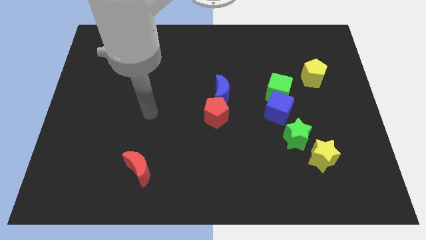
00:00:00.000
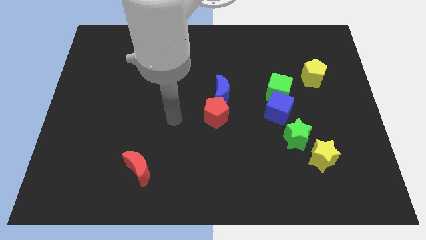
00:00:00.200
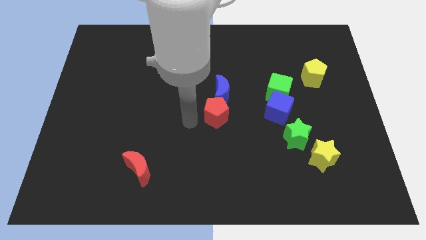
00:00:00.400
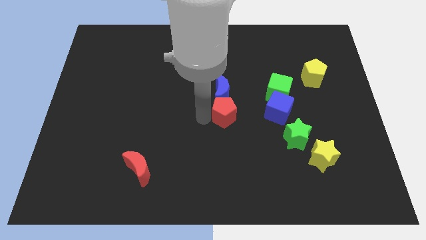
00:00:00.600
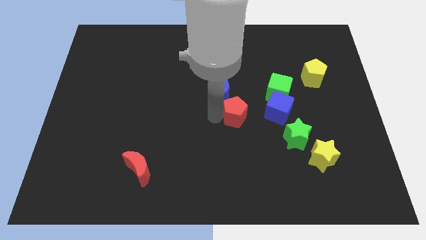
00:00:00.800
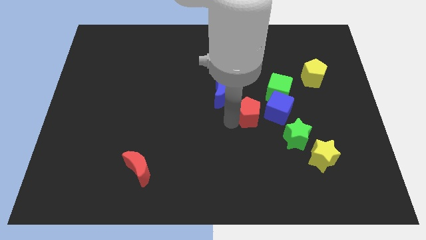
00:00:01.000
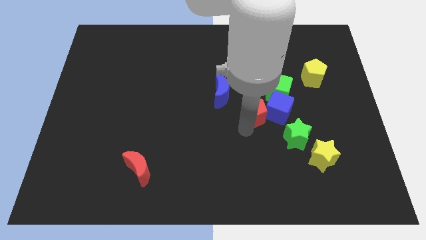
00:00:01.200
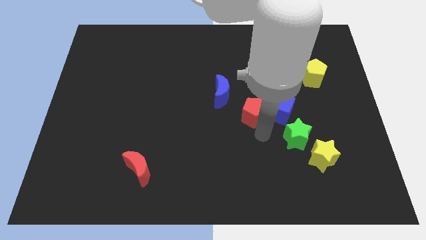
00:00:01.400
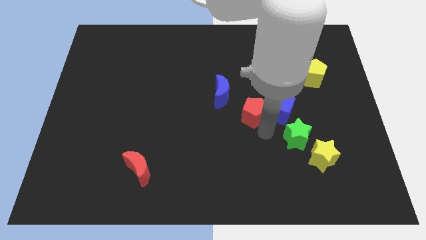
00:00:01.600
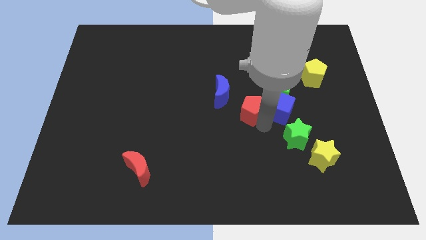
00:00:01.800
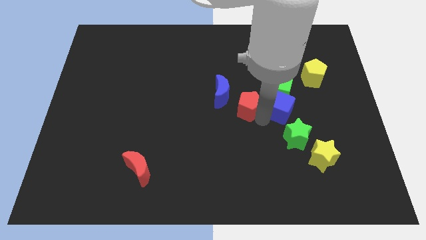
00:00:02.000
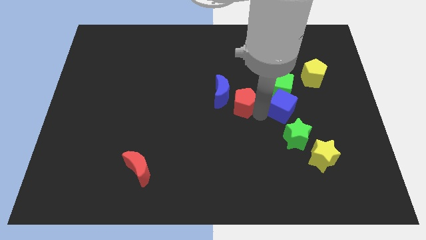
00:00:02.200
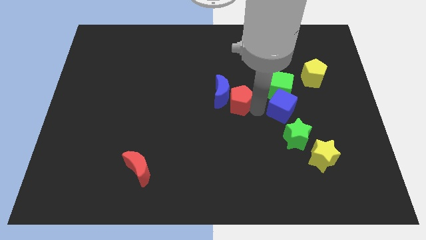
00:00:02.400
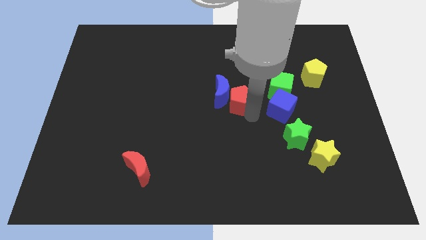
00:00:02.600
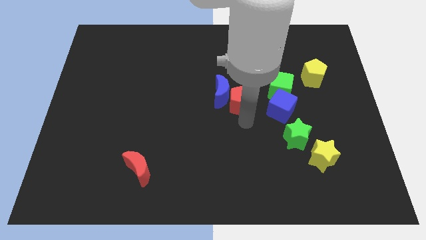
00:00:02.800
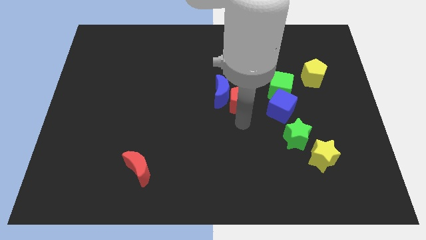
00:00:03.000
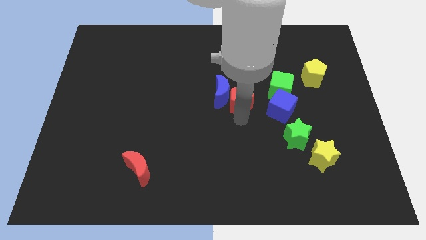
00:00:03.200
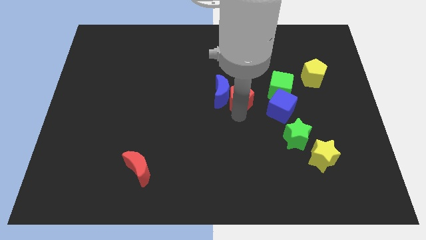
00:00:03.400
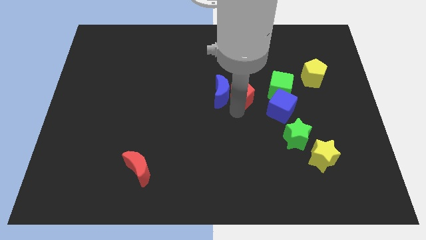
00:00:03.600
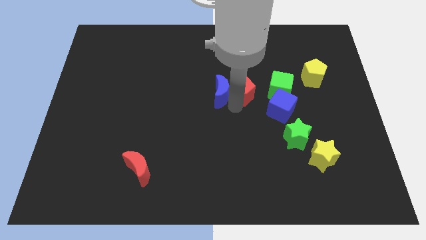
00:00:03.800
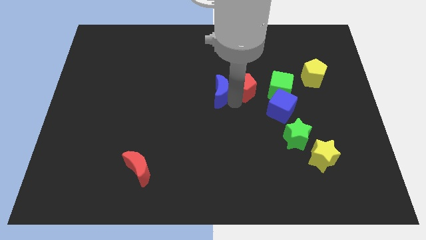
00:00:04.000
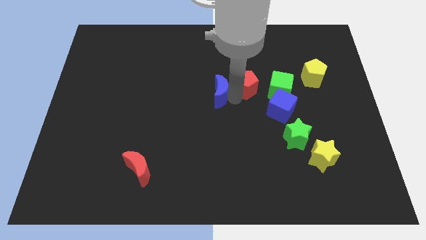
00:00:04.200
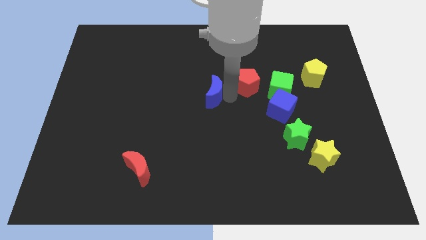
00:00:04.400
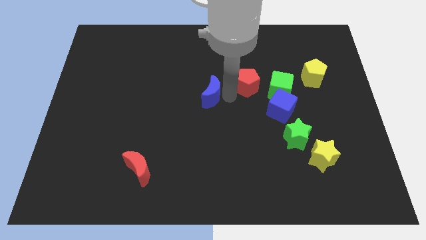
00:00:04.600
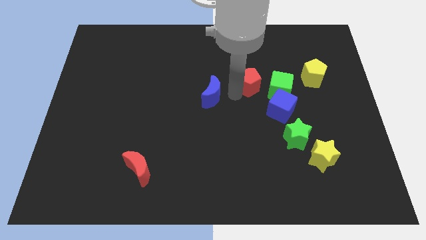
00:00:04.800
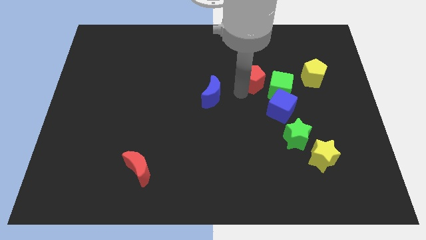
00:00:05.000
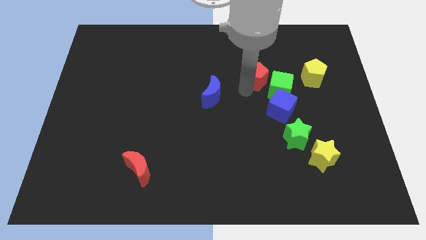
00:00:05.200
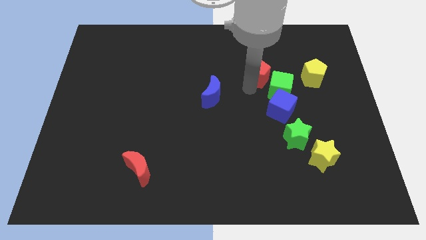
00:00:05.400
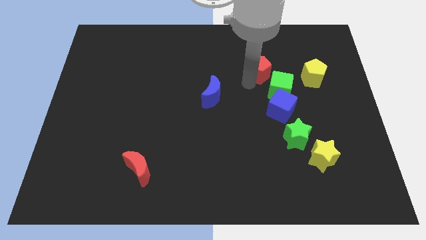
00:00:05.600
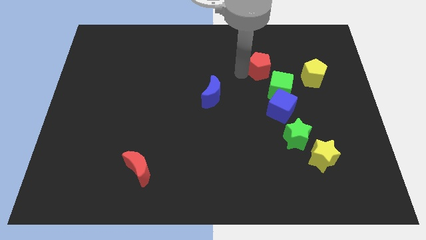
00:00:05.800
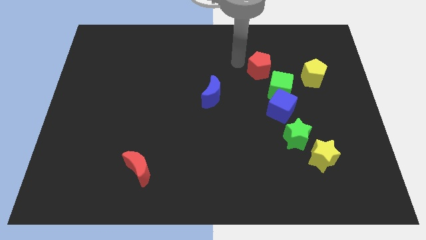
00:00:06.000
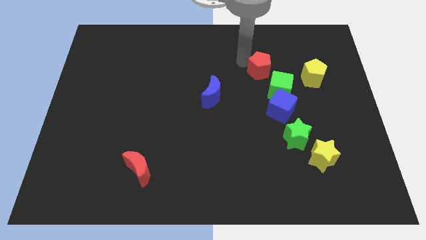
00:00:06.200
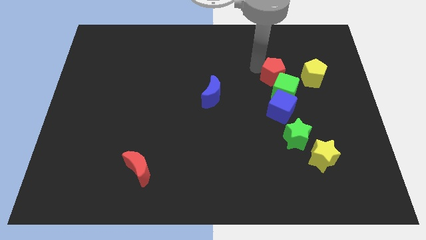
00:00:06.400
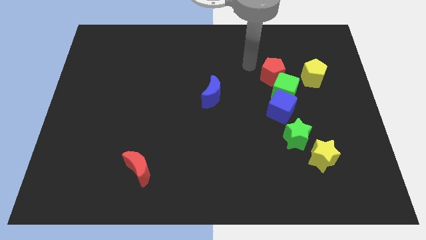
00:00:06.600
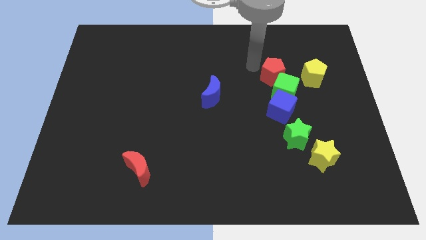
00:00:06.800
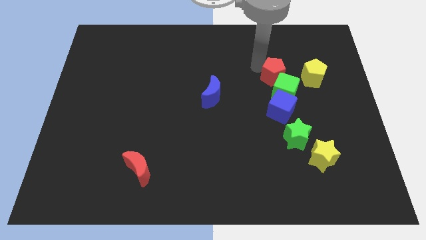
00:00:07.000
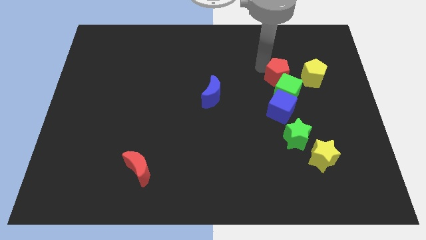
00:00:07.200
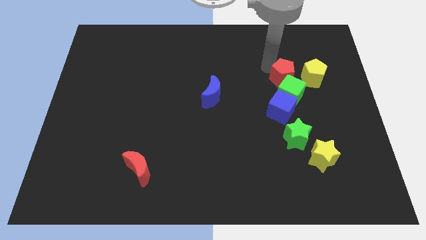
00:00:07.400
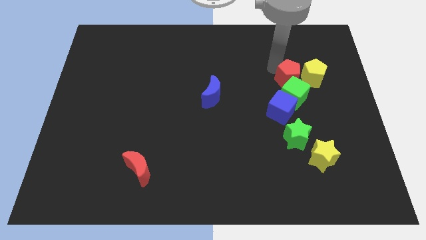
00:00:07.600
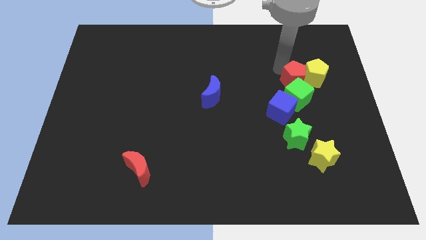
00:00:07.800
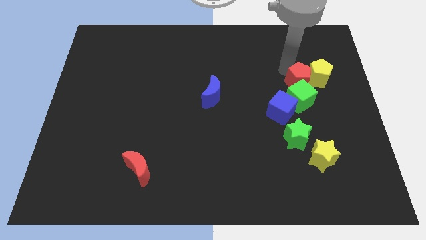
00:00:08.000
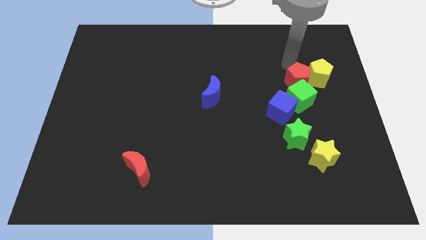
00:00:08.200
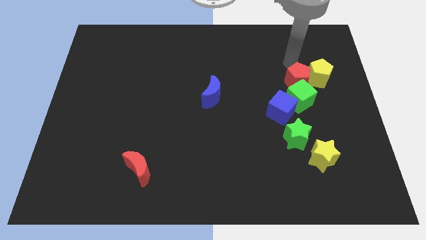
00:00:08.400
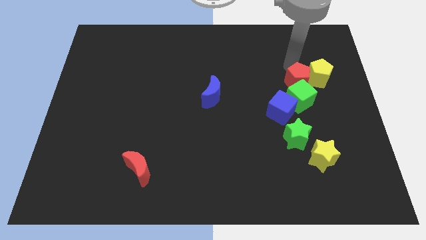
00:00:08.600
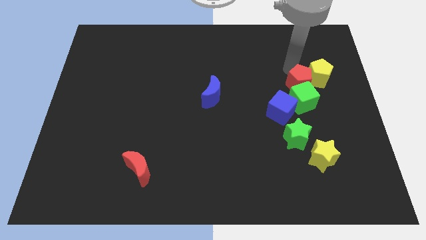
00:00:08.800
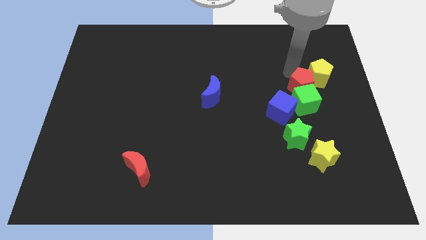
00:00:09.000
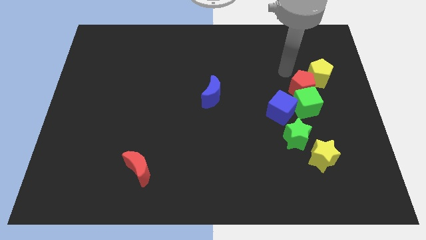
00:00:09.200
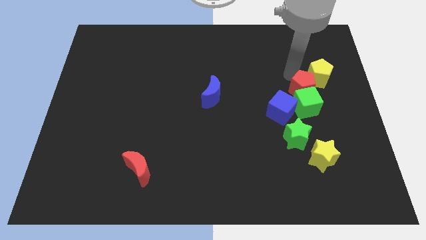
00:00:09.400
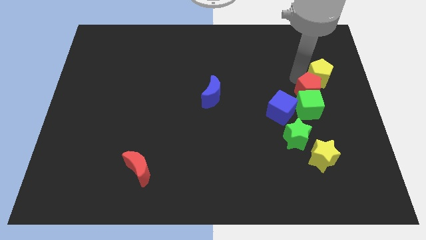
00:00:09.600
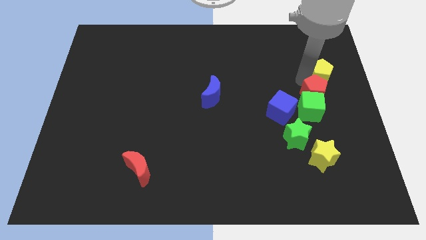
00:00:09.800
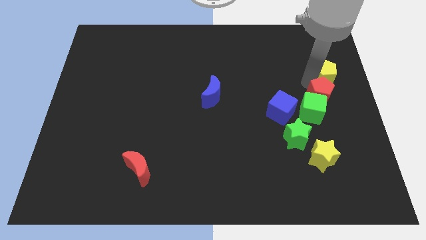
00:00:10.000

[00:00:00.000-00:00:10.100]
move the red pentagon to the right side of the blue cube

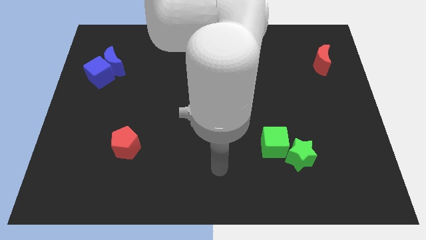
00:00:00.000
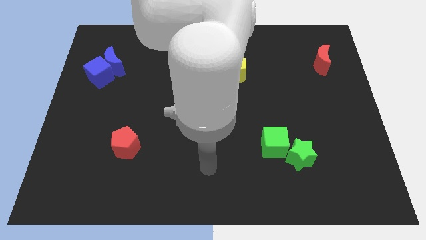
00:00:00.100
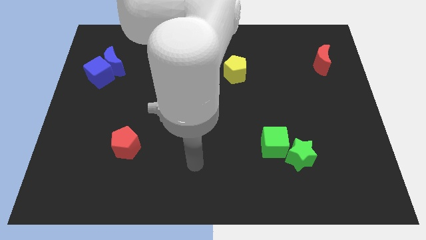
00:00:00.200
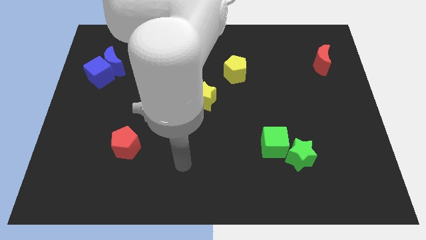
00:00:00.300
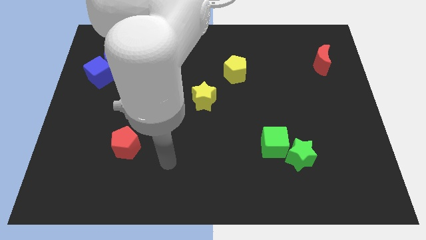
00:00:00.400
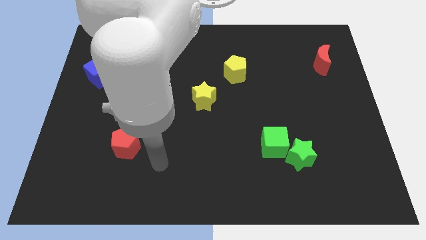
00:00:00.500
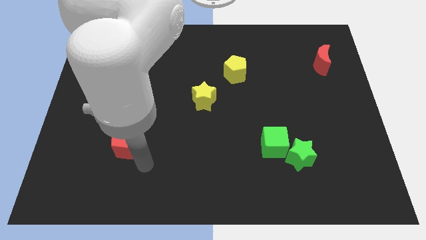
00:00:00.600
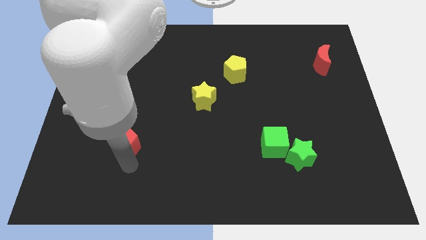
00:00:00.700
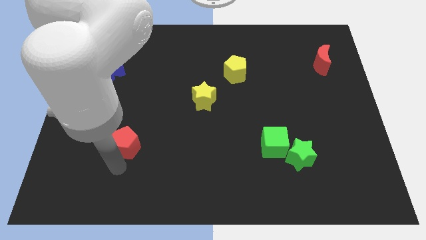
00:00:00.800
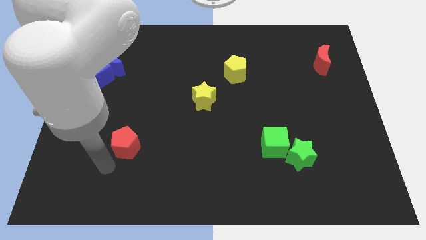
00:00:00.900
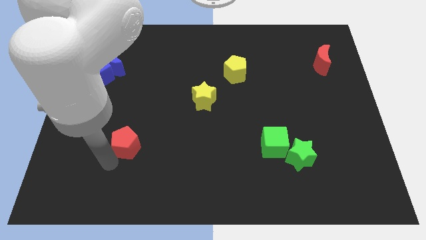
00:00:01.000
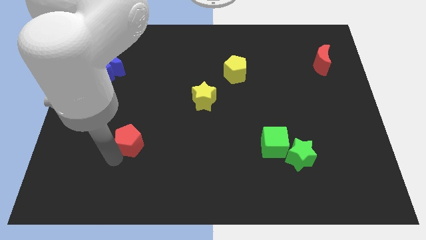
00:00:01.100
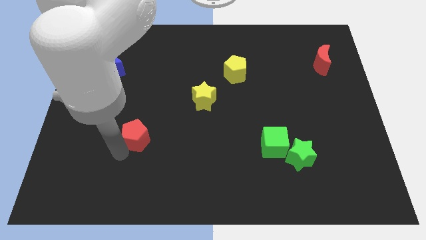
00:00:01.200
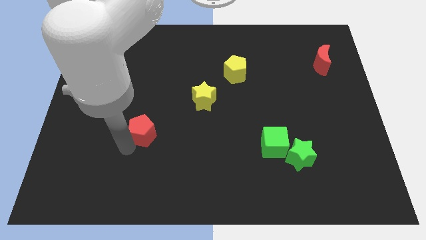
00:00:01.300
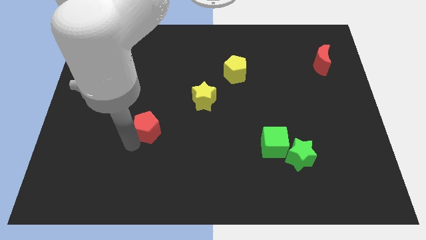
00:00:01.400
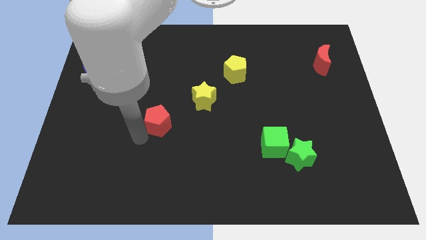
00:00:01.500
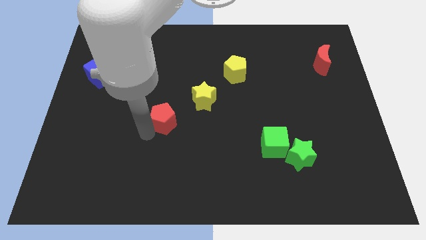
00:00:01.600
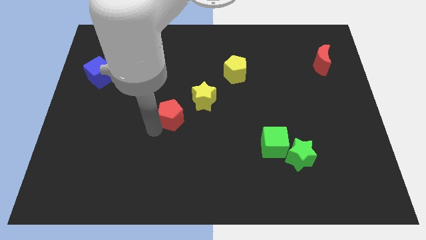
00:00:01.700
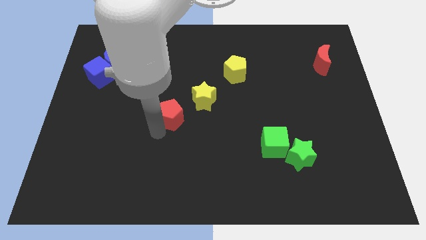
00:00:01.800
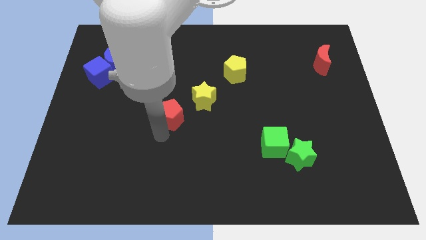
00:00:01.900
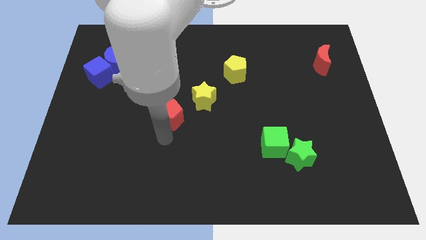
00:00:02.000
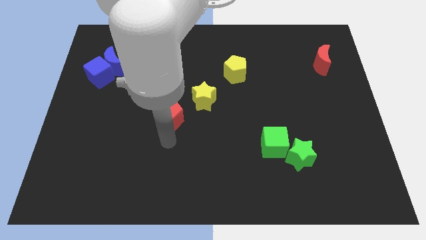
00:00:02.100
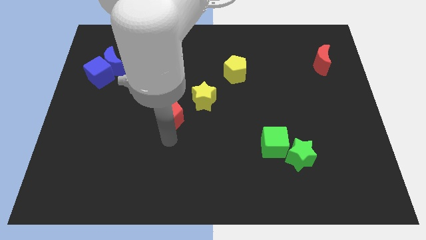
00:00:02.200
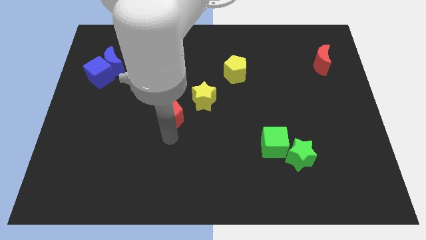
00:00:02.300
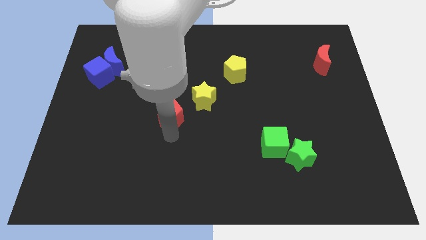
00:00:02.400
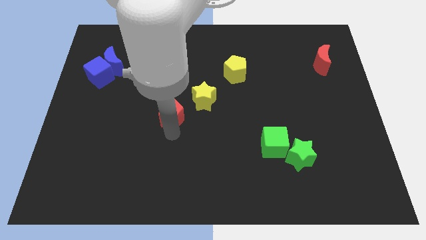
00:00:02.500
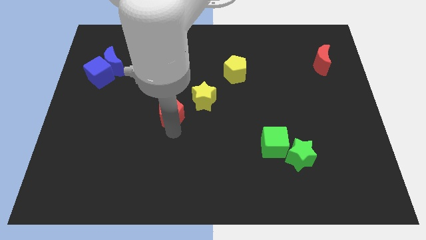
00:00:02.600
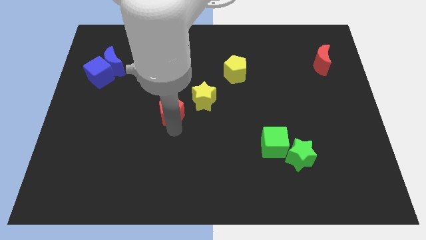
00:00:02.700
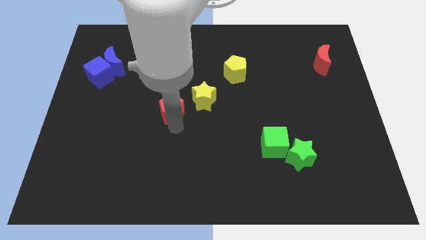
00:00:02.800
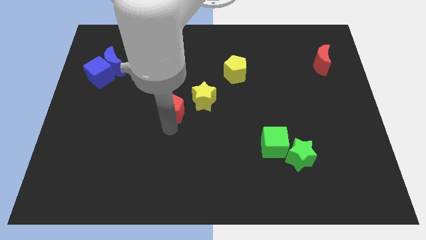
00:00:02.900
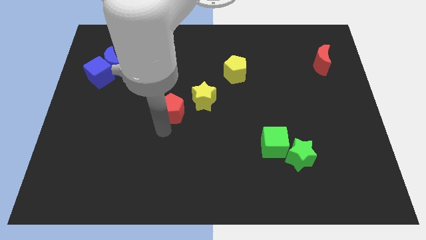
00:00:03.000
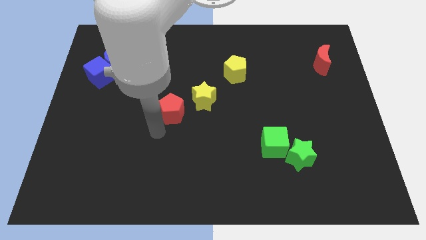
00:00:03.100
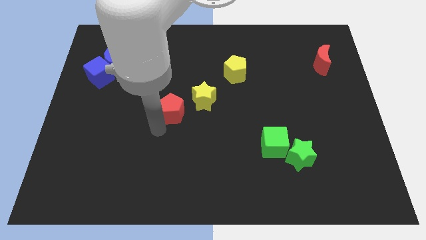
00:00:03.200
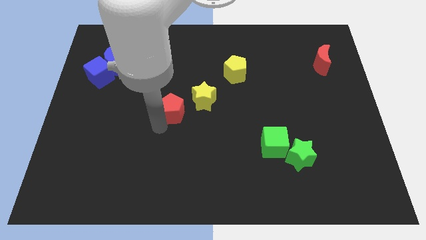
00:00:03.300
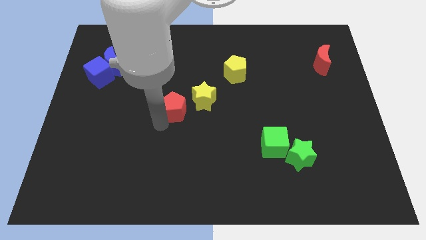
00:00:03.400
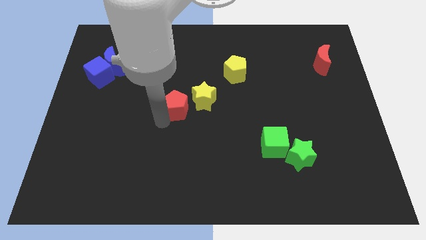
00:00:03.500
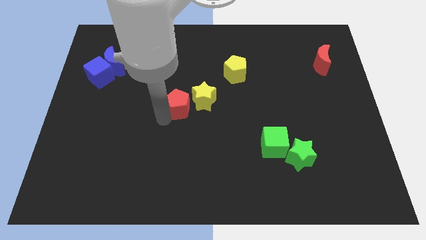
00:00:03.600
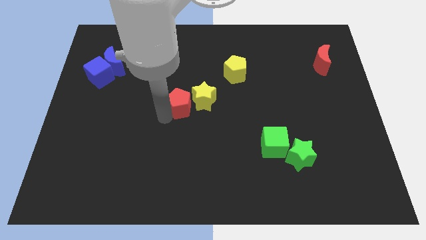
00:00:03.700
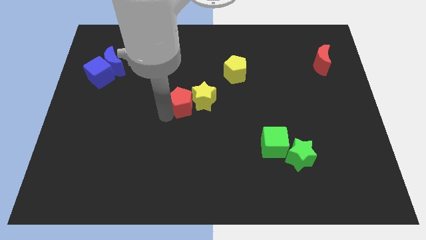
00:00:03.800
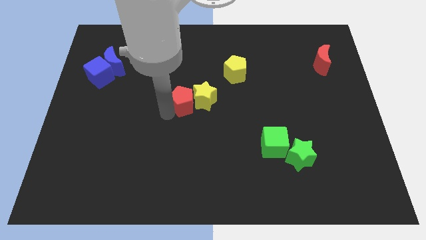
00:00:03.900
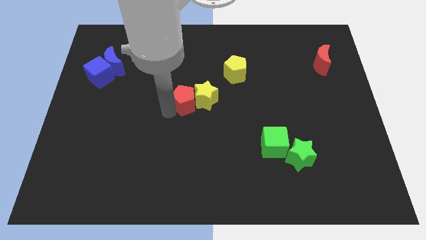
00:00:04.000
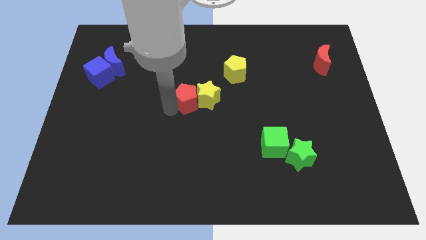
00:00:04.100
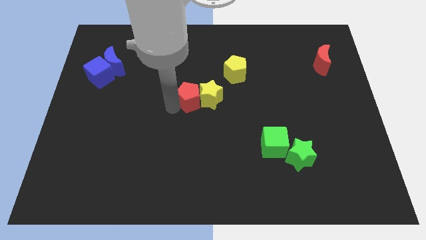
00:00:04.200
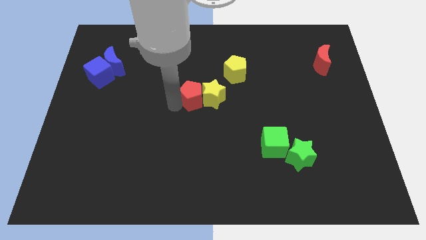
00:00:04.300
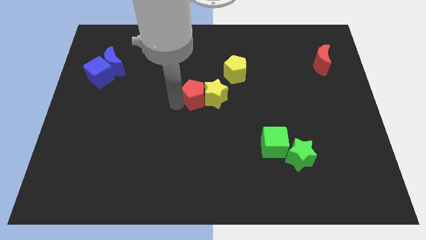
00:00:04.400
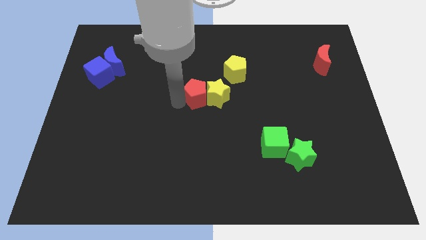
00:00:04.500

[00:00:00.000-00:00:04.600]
move the red pentagon to the bottom left of the yellow pentagon
